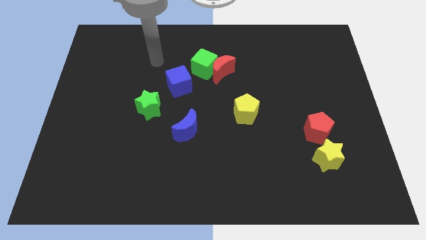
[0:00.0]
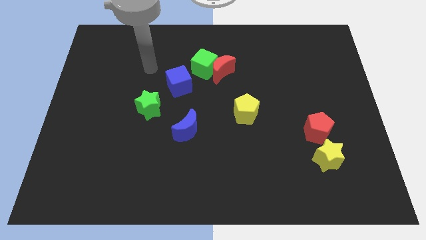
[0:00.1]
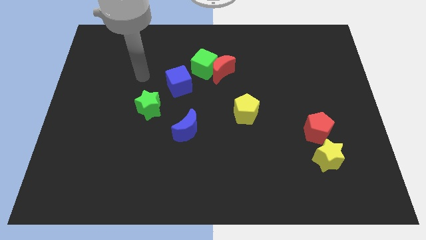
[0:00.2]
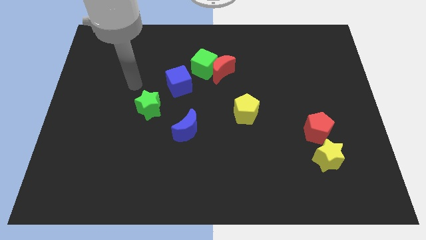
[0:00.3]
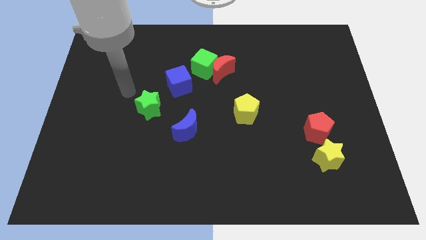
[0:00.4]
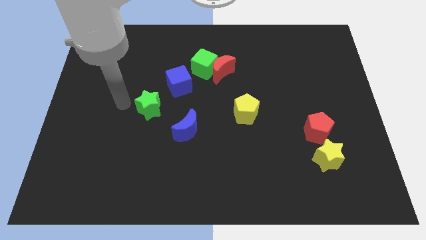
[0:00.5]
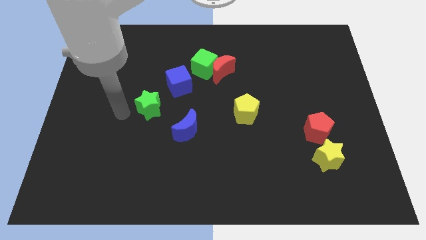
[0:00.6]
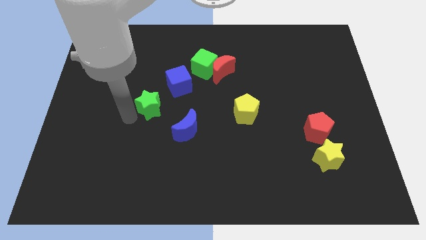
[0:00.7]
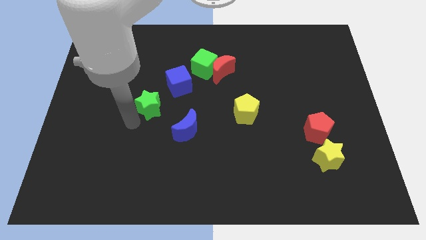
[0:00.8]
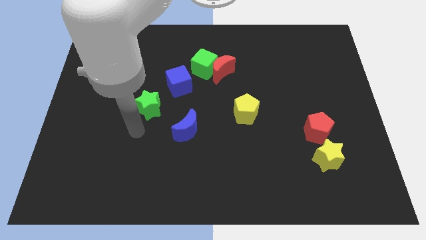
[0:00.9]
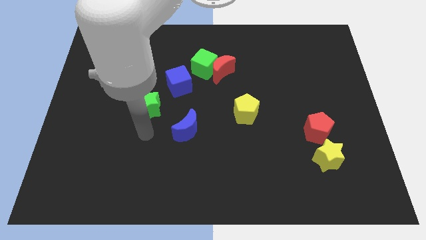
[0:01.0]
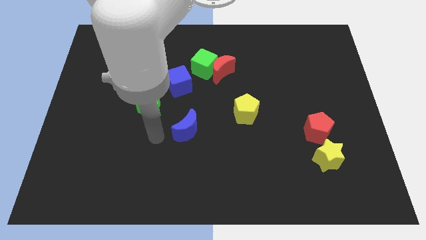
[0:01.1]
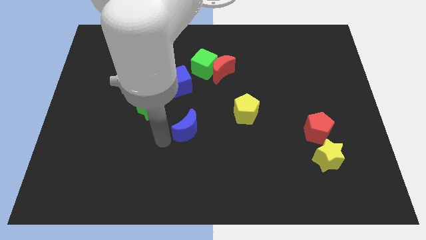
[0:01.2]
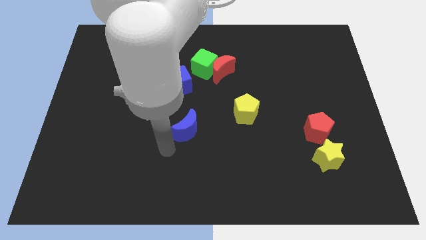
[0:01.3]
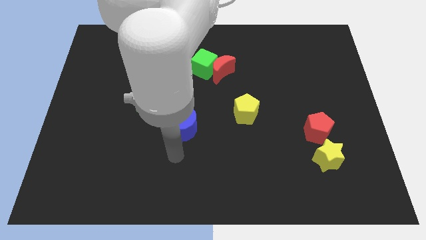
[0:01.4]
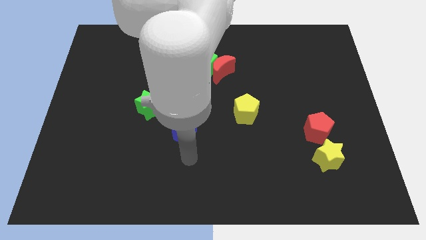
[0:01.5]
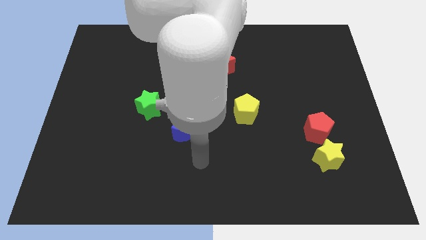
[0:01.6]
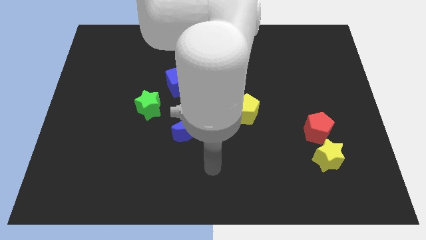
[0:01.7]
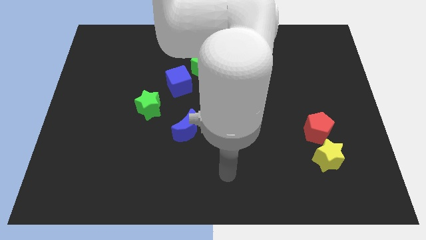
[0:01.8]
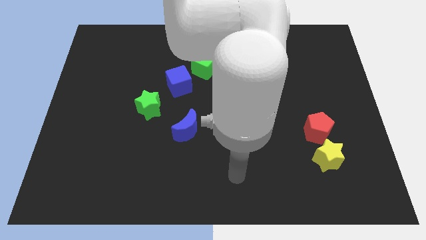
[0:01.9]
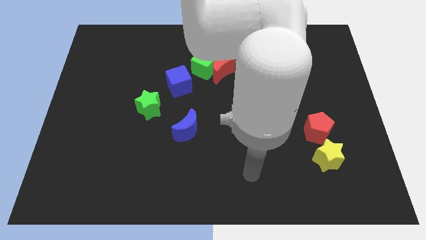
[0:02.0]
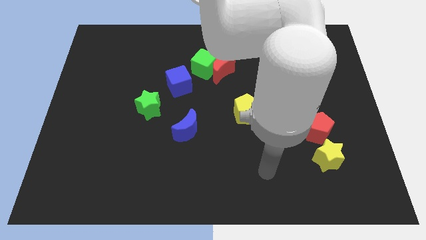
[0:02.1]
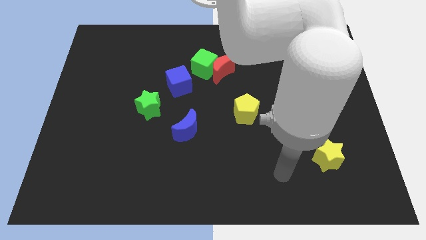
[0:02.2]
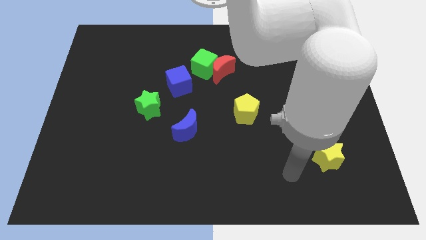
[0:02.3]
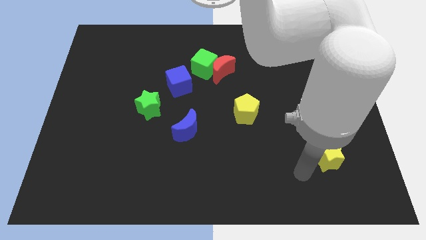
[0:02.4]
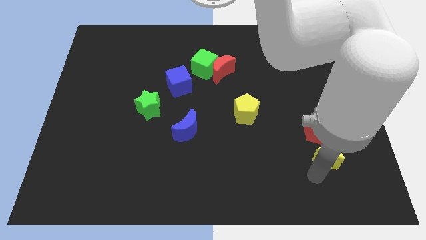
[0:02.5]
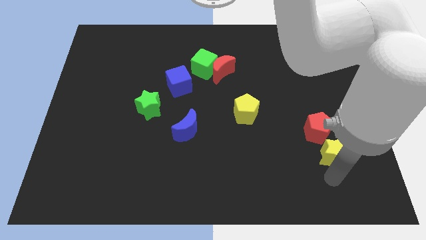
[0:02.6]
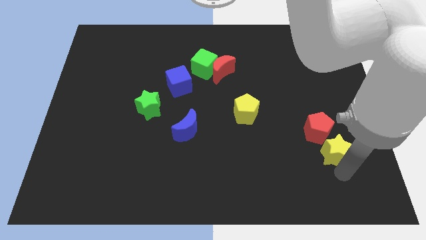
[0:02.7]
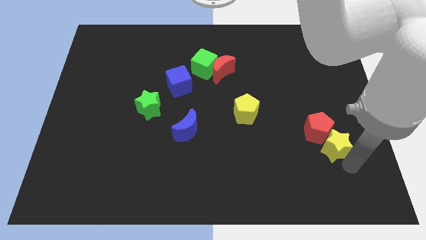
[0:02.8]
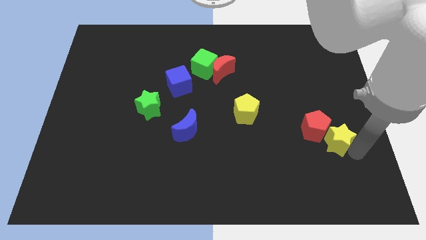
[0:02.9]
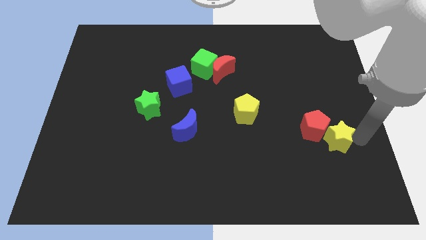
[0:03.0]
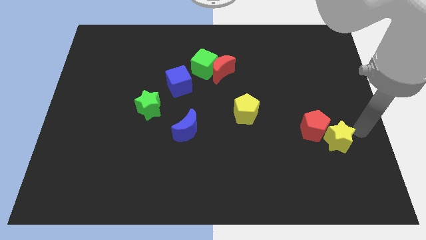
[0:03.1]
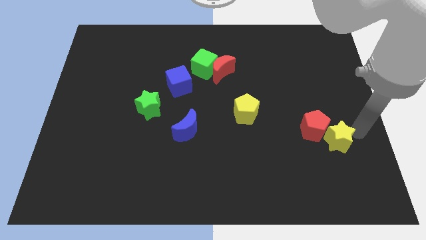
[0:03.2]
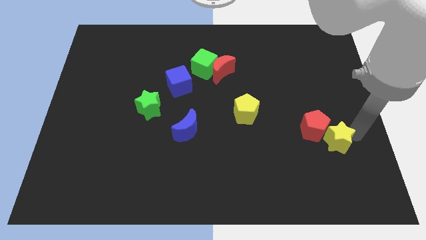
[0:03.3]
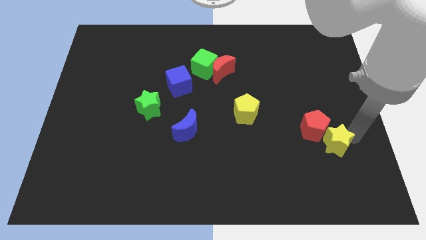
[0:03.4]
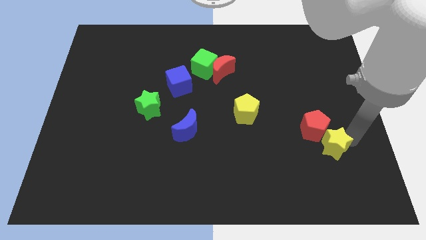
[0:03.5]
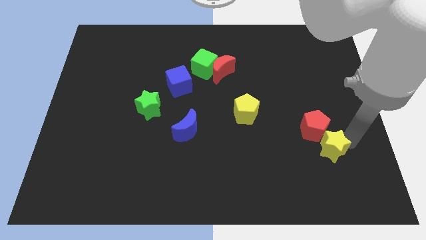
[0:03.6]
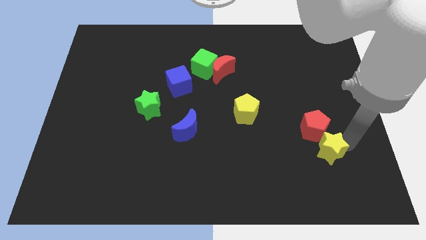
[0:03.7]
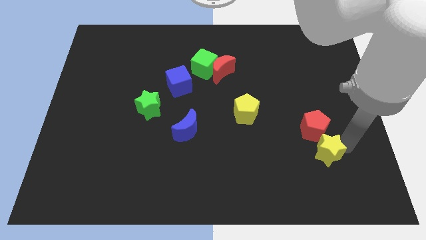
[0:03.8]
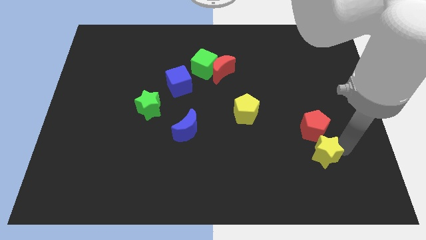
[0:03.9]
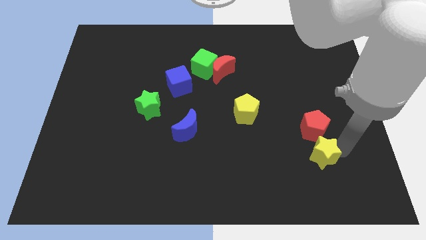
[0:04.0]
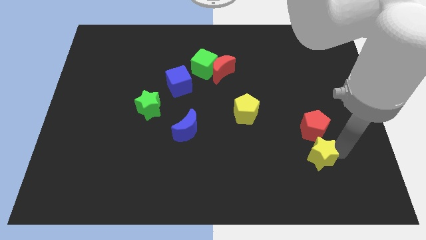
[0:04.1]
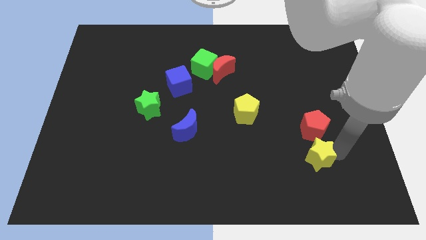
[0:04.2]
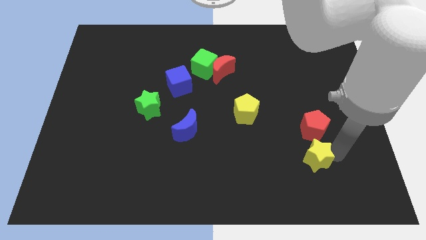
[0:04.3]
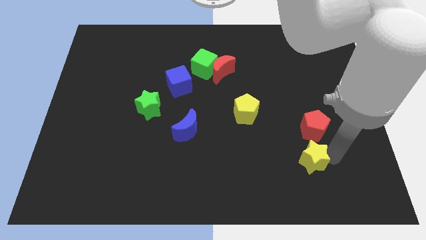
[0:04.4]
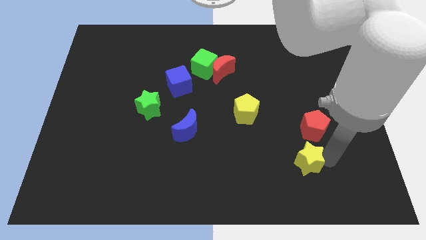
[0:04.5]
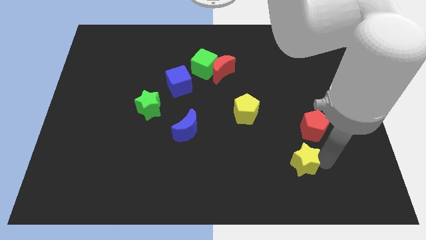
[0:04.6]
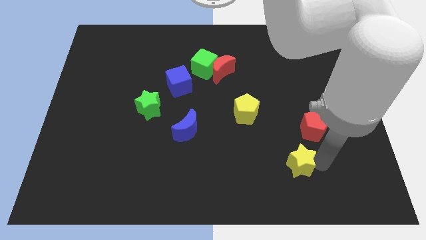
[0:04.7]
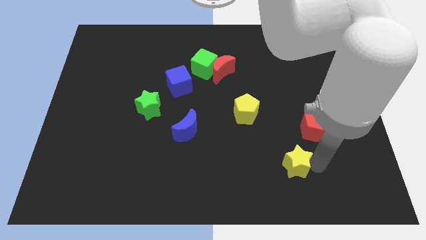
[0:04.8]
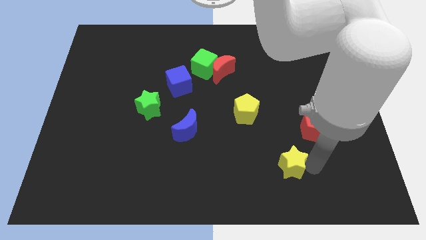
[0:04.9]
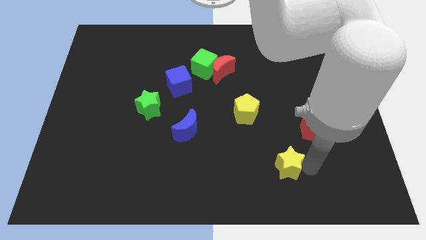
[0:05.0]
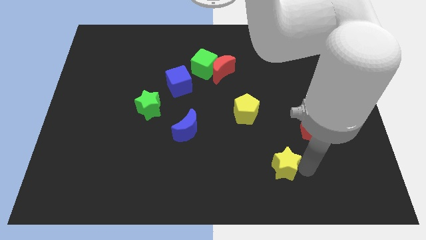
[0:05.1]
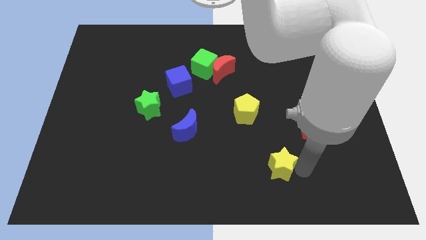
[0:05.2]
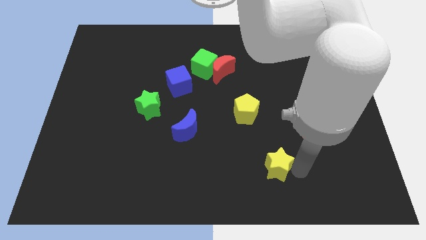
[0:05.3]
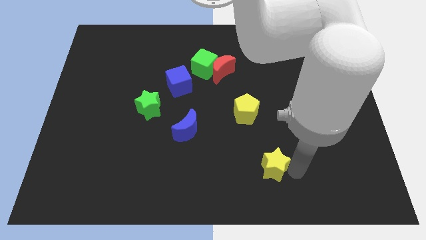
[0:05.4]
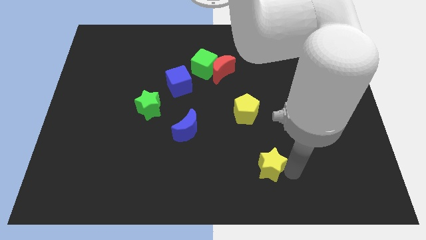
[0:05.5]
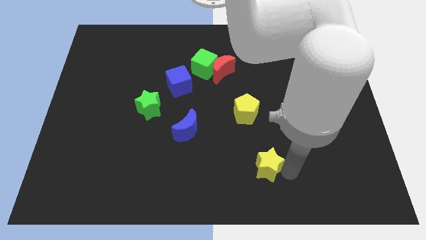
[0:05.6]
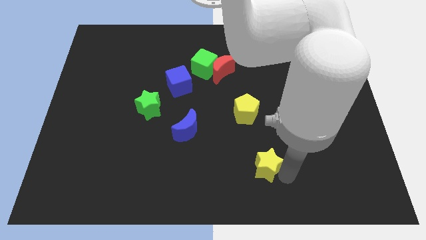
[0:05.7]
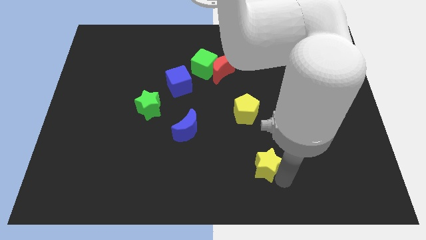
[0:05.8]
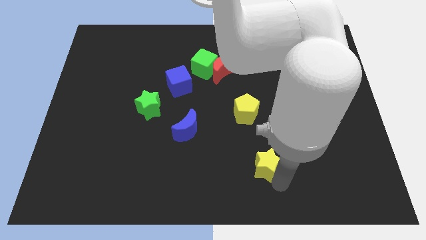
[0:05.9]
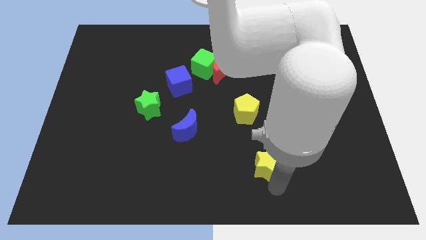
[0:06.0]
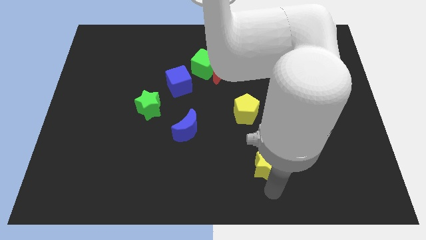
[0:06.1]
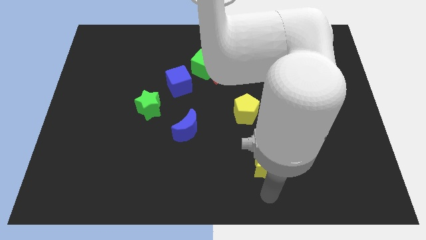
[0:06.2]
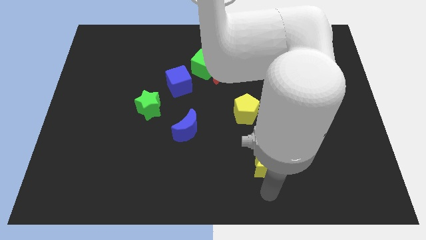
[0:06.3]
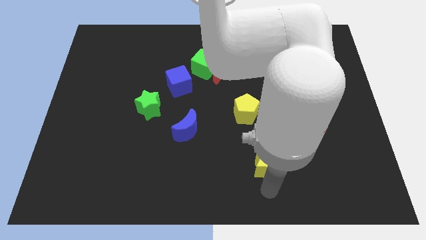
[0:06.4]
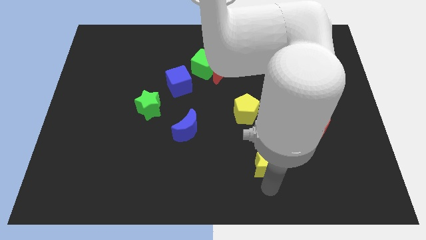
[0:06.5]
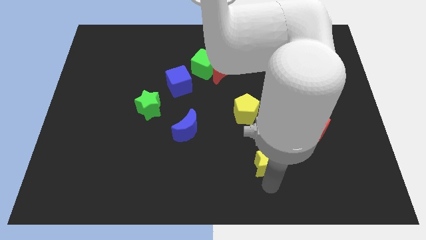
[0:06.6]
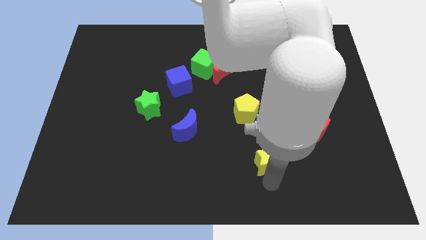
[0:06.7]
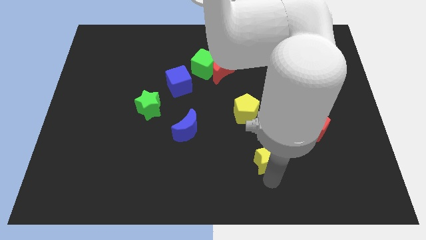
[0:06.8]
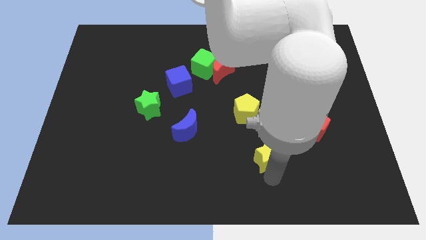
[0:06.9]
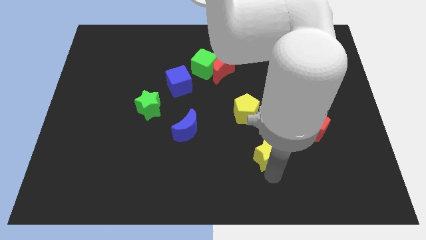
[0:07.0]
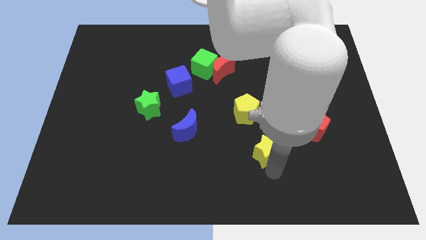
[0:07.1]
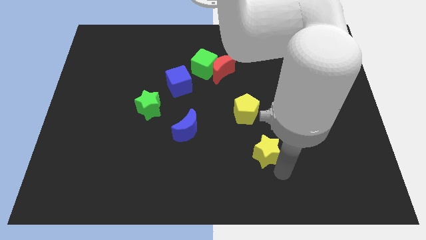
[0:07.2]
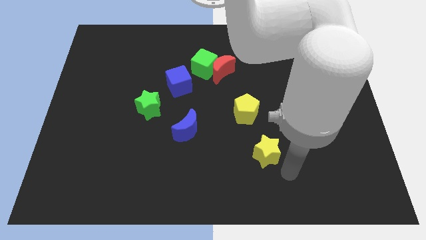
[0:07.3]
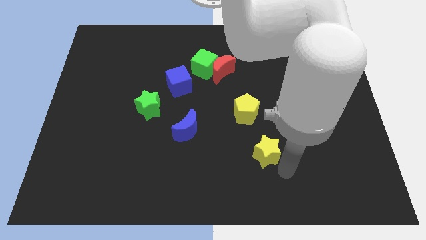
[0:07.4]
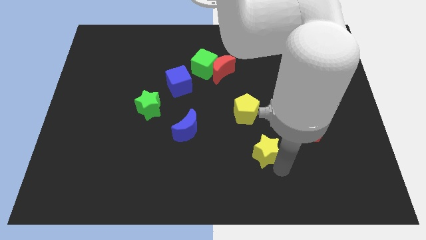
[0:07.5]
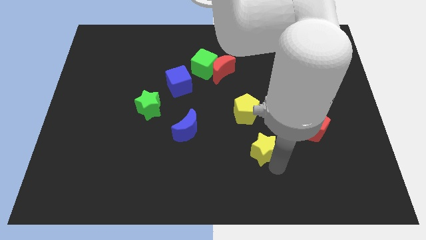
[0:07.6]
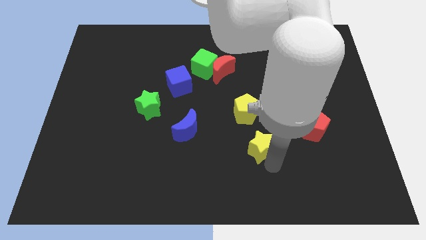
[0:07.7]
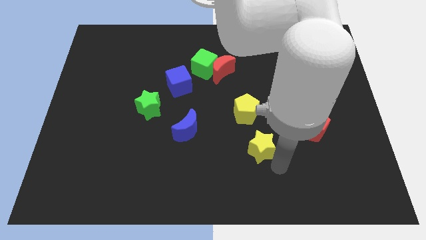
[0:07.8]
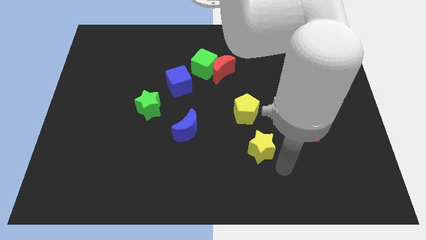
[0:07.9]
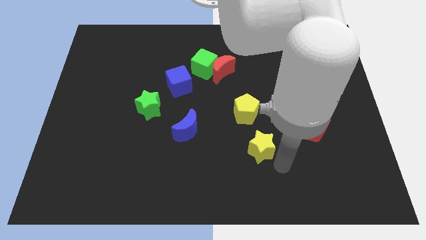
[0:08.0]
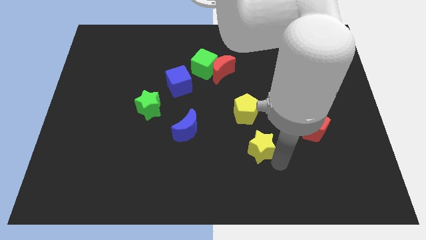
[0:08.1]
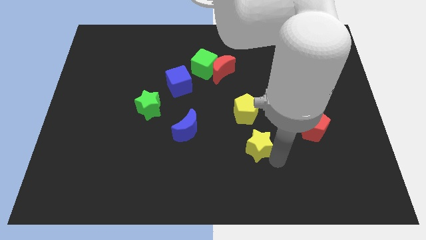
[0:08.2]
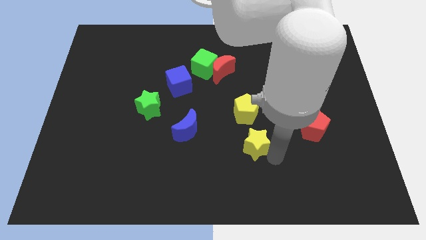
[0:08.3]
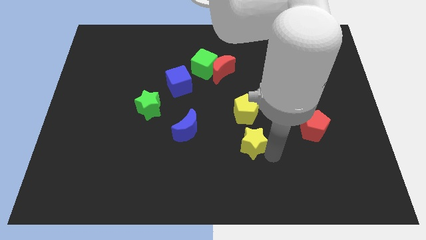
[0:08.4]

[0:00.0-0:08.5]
put the yellow star to the right side of the blue moon
